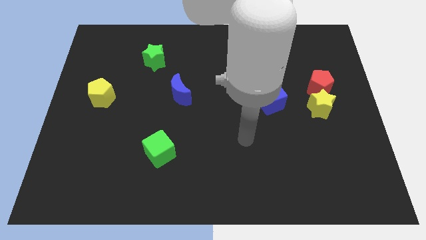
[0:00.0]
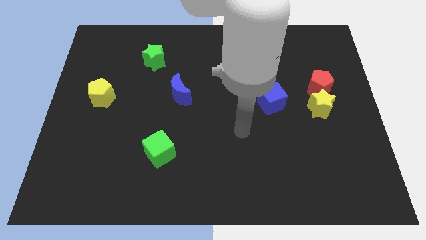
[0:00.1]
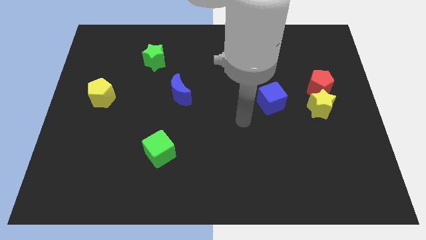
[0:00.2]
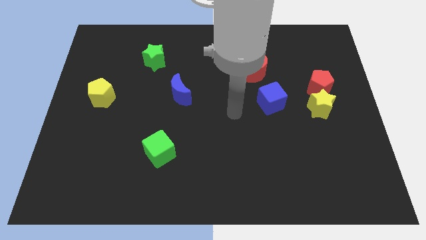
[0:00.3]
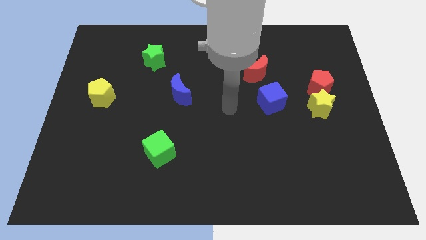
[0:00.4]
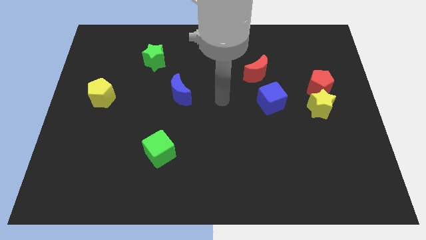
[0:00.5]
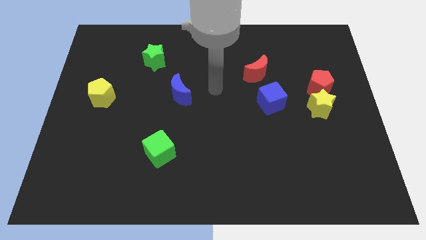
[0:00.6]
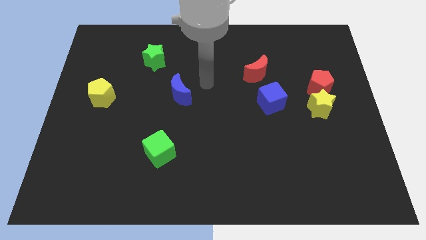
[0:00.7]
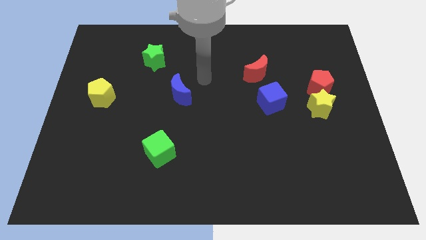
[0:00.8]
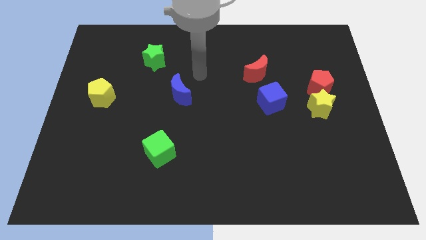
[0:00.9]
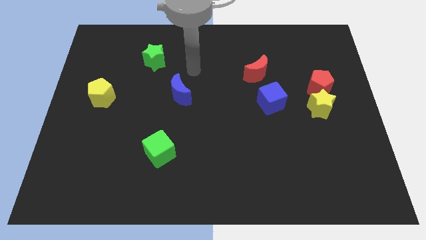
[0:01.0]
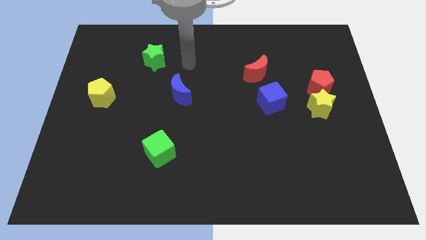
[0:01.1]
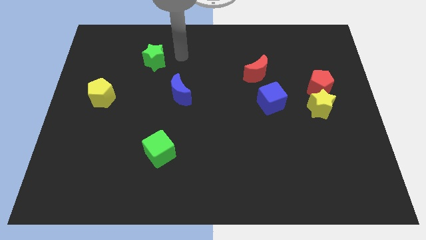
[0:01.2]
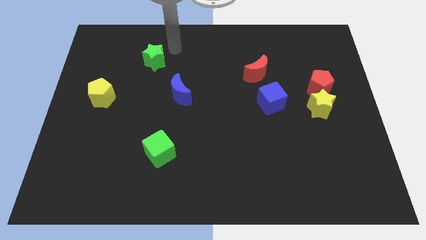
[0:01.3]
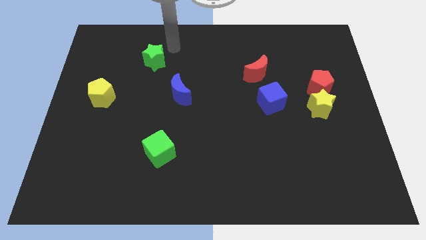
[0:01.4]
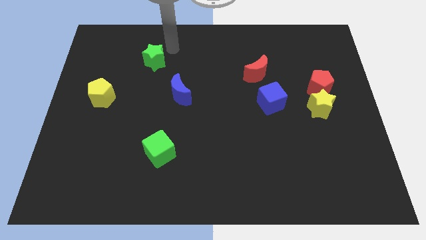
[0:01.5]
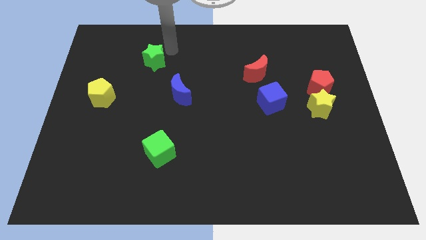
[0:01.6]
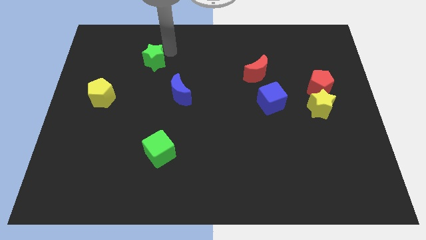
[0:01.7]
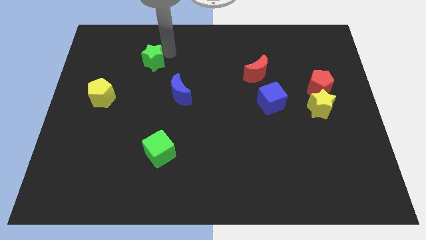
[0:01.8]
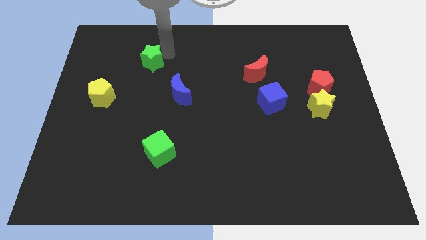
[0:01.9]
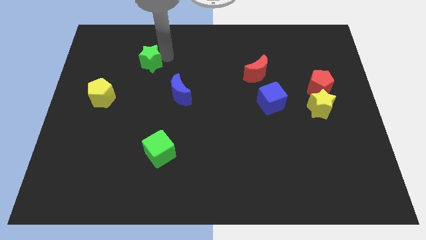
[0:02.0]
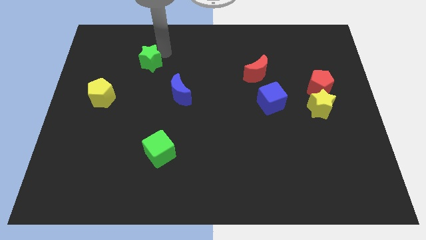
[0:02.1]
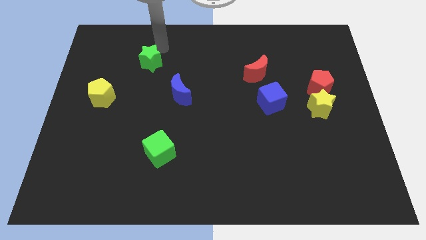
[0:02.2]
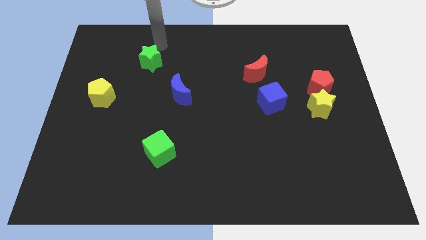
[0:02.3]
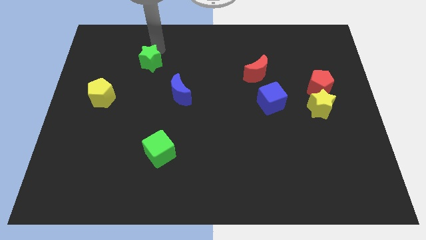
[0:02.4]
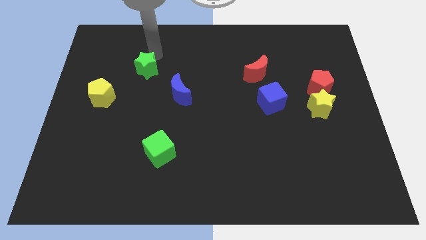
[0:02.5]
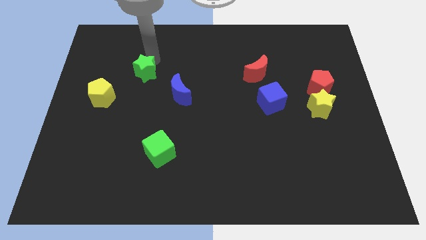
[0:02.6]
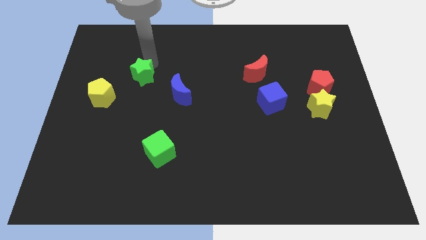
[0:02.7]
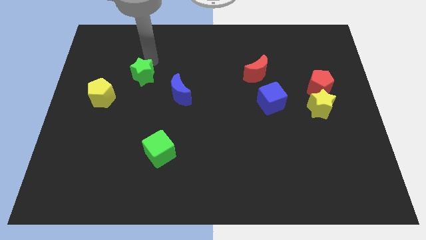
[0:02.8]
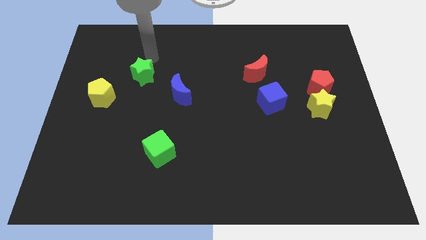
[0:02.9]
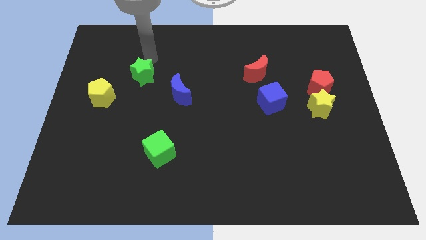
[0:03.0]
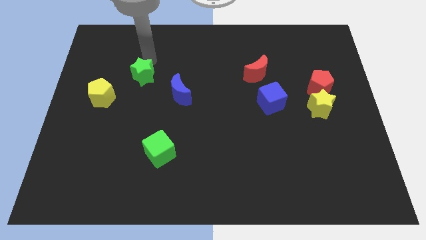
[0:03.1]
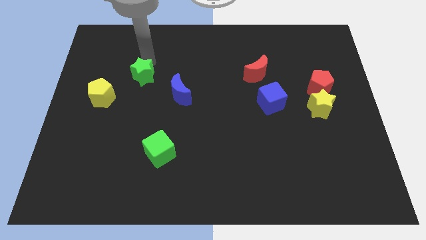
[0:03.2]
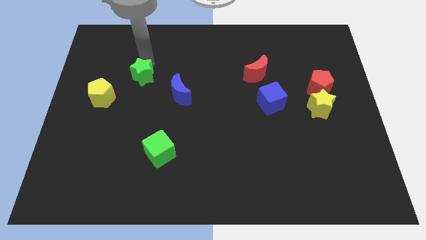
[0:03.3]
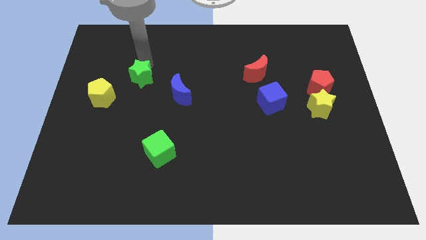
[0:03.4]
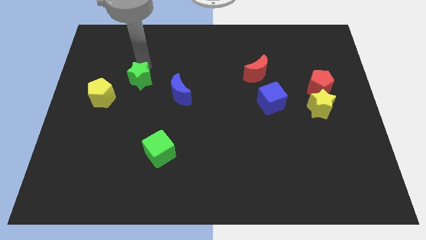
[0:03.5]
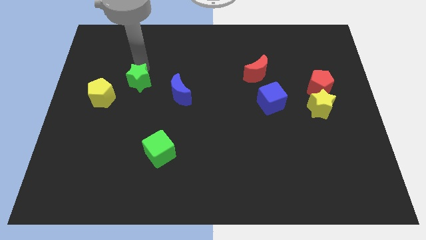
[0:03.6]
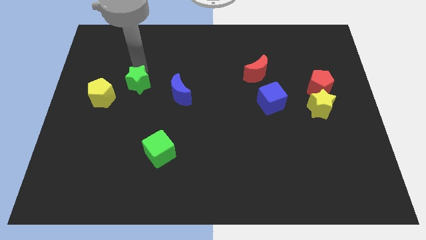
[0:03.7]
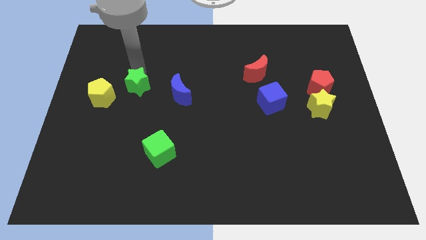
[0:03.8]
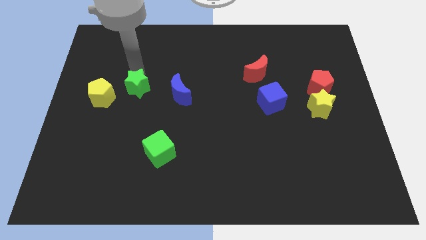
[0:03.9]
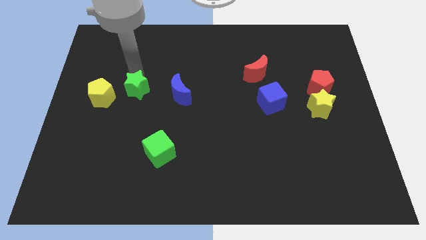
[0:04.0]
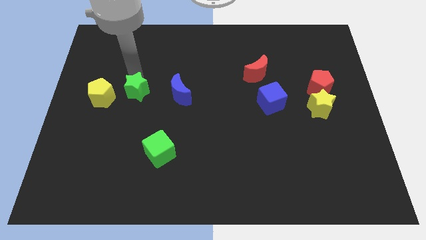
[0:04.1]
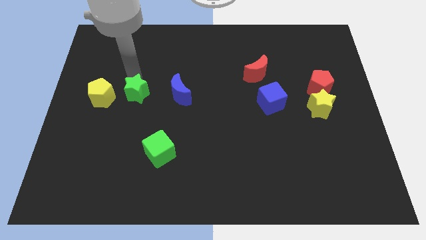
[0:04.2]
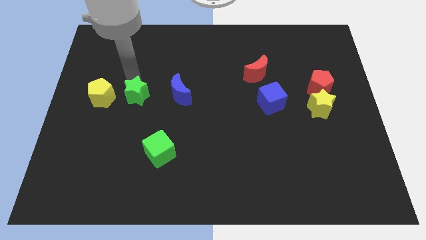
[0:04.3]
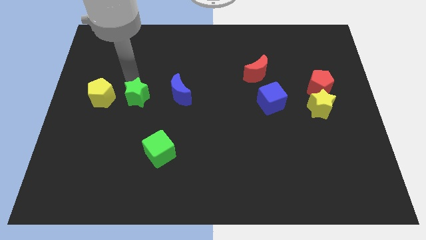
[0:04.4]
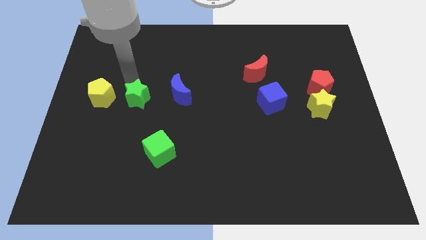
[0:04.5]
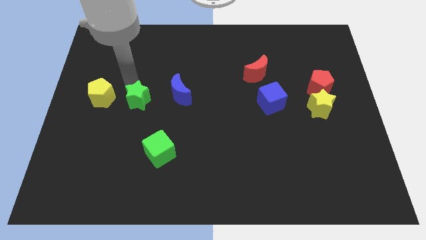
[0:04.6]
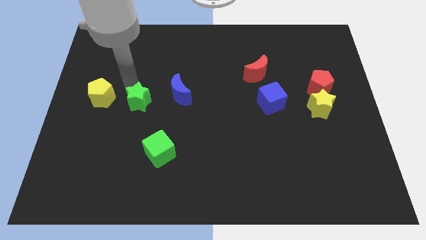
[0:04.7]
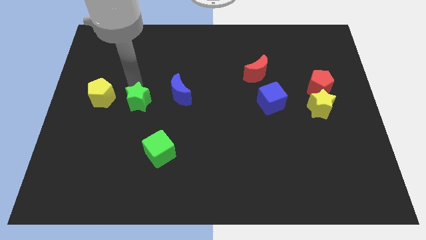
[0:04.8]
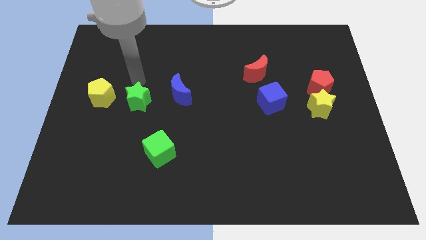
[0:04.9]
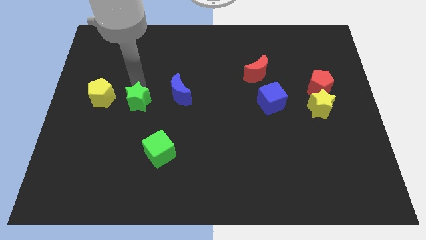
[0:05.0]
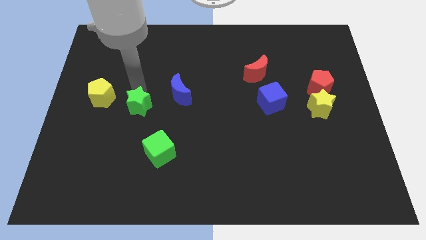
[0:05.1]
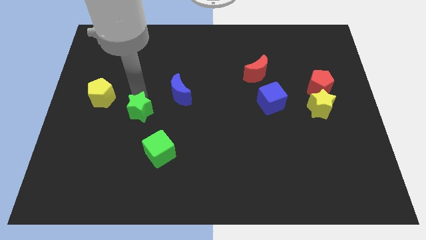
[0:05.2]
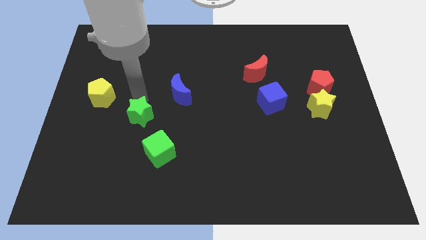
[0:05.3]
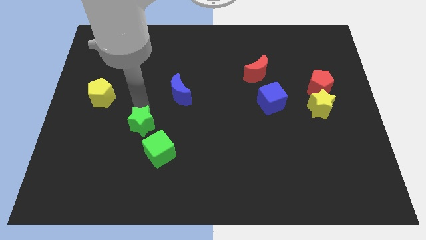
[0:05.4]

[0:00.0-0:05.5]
slide the green star downwards

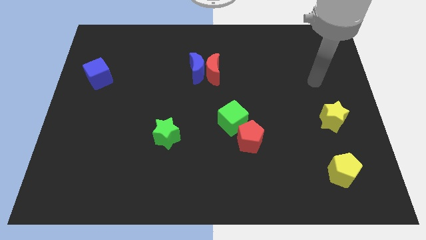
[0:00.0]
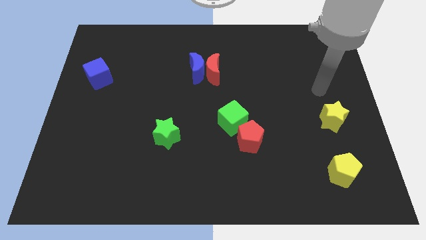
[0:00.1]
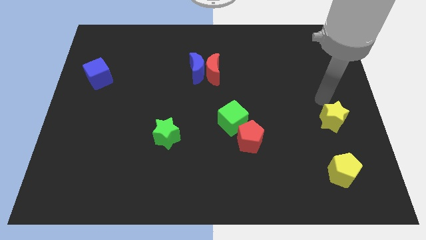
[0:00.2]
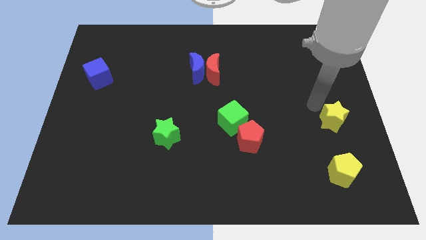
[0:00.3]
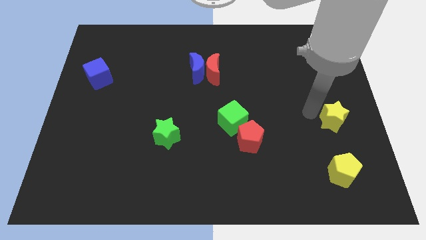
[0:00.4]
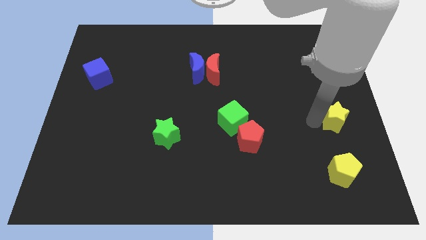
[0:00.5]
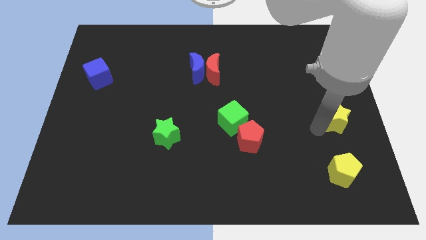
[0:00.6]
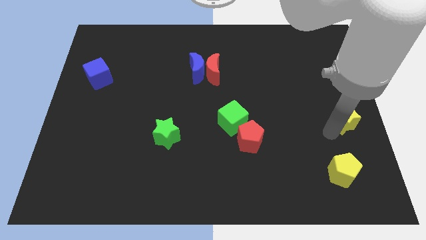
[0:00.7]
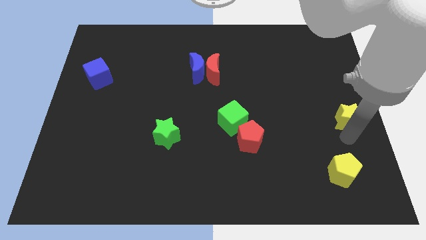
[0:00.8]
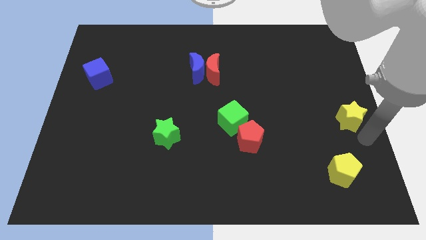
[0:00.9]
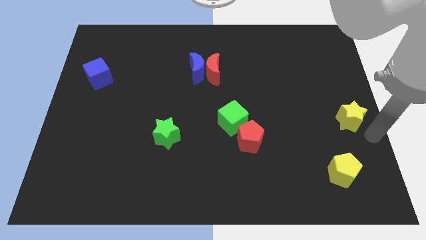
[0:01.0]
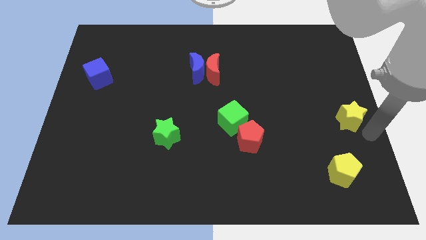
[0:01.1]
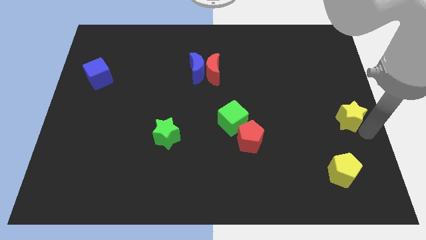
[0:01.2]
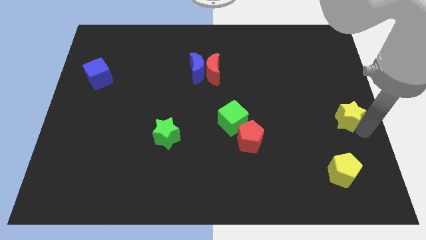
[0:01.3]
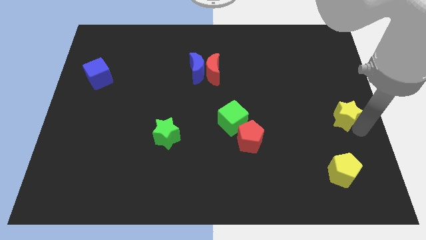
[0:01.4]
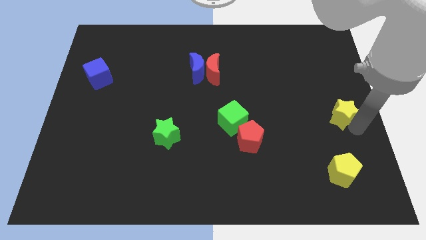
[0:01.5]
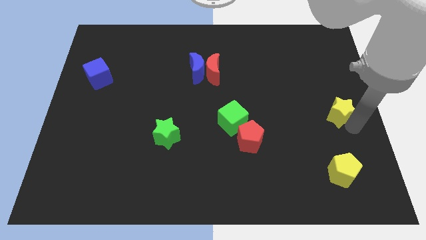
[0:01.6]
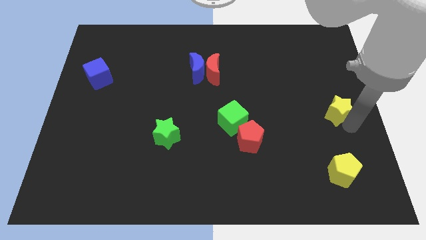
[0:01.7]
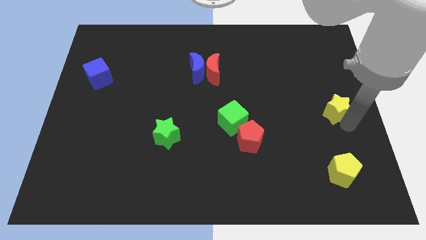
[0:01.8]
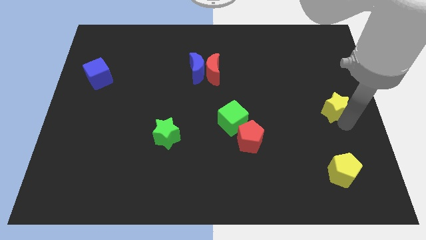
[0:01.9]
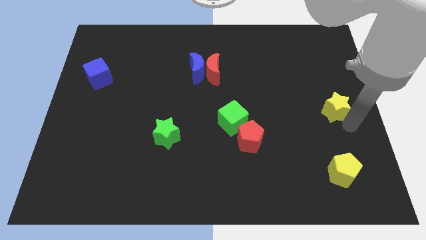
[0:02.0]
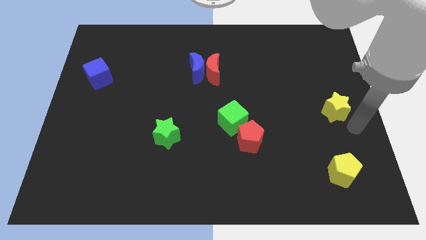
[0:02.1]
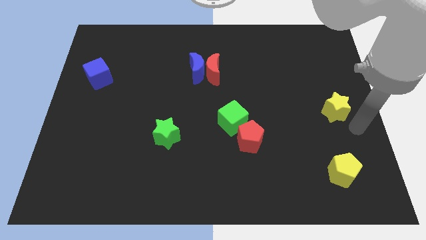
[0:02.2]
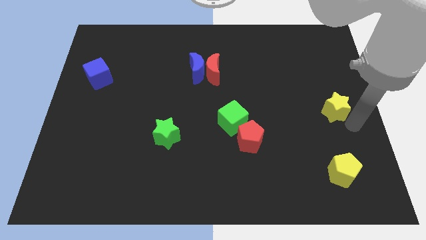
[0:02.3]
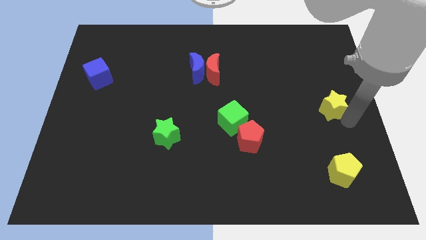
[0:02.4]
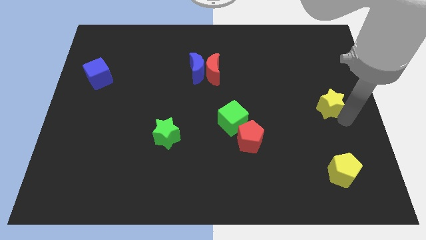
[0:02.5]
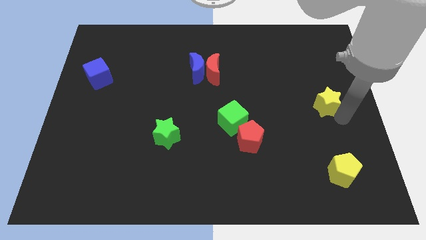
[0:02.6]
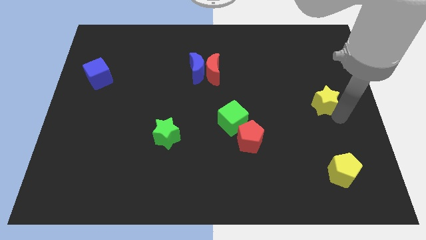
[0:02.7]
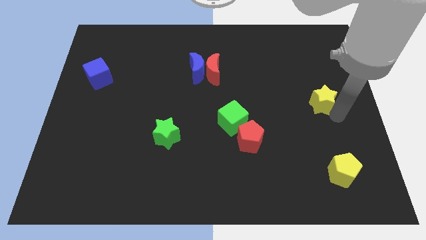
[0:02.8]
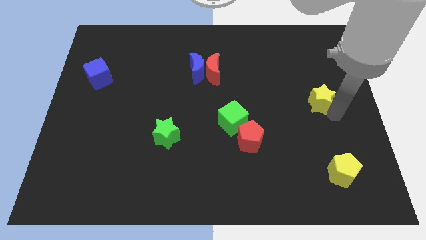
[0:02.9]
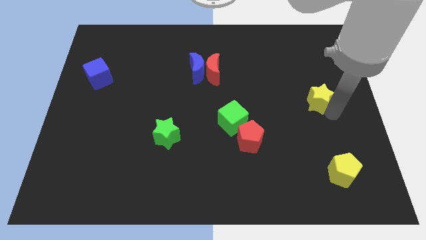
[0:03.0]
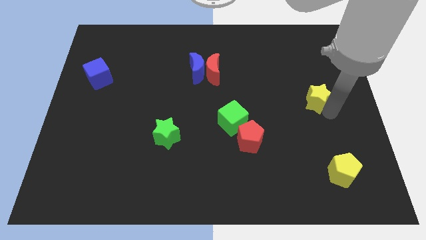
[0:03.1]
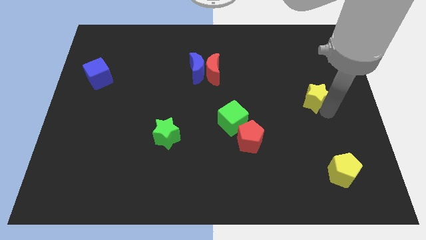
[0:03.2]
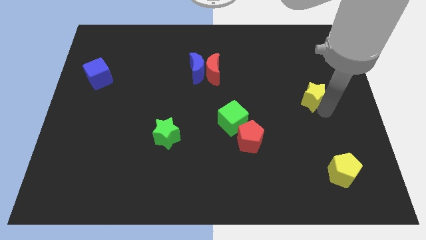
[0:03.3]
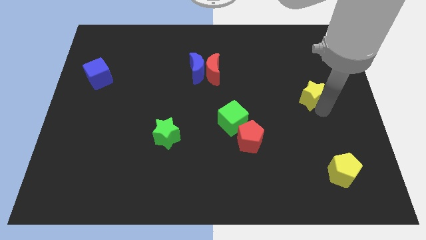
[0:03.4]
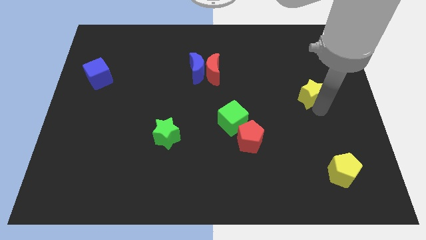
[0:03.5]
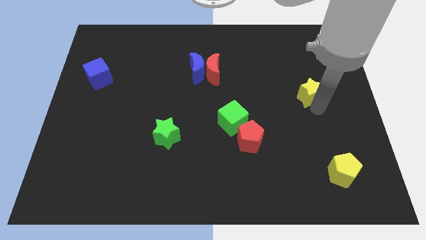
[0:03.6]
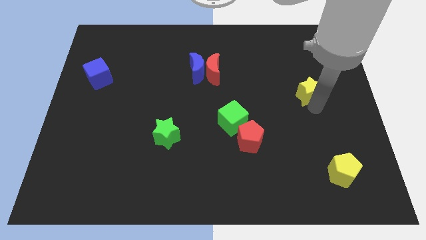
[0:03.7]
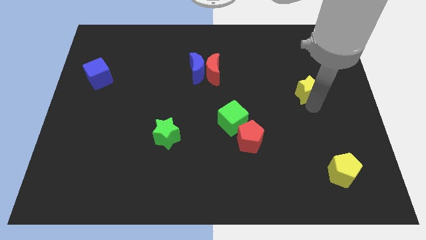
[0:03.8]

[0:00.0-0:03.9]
slightly move the yellow star upwards
